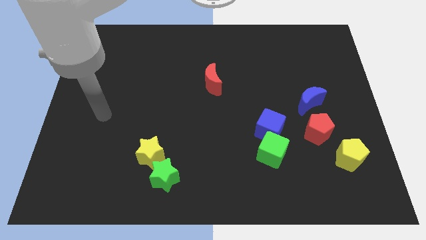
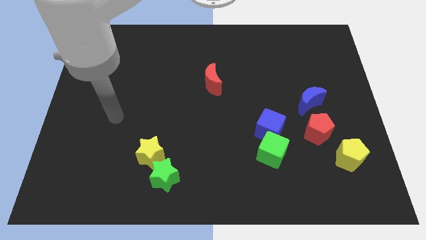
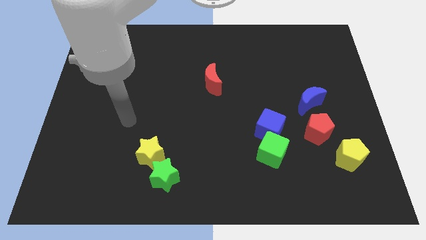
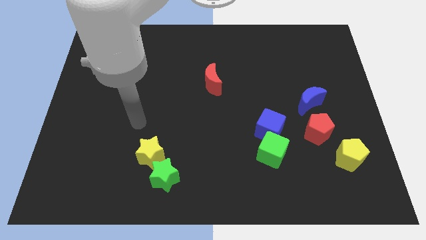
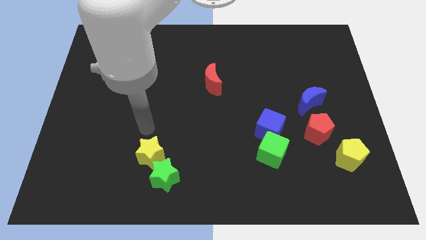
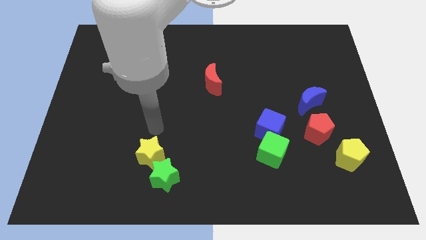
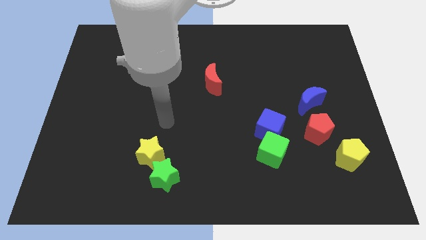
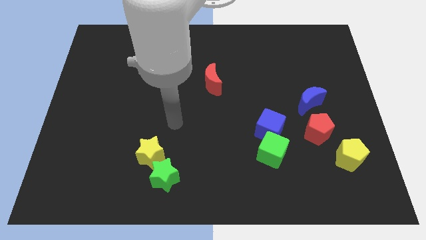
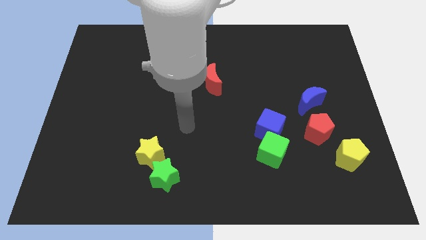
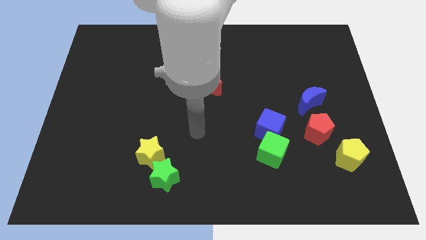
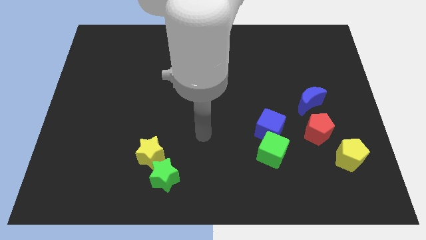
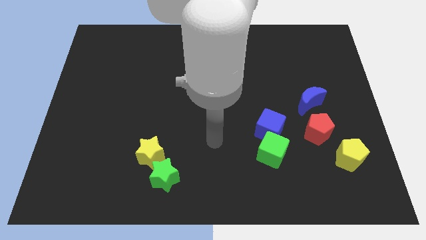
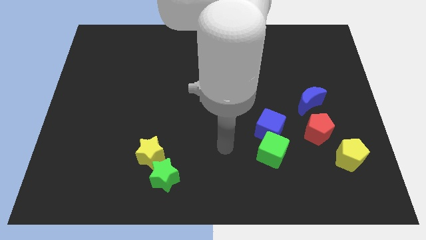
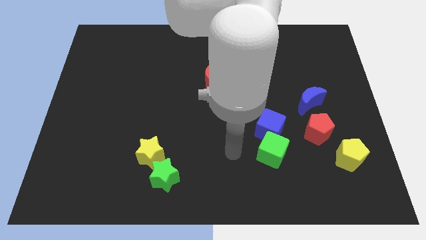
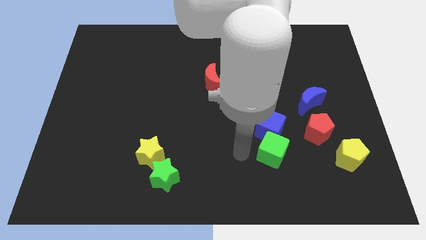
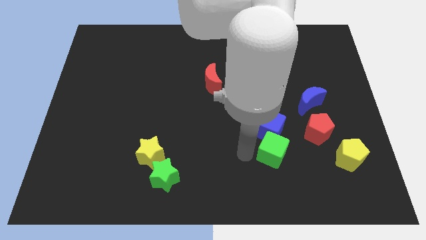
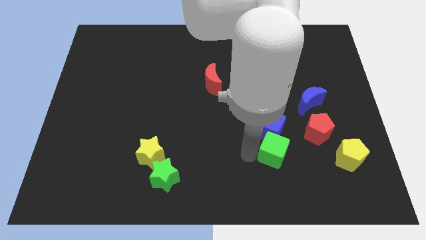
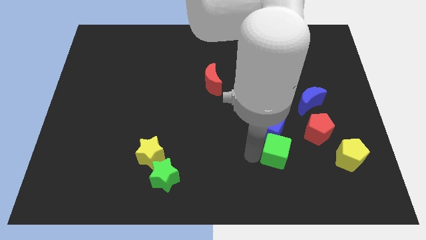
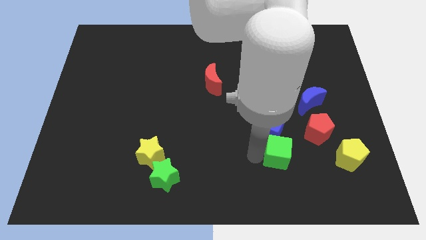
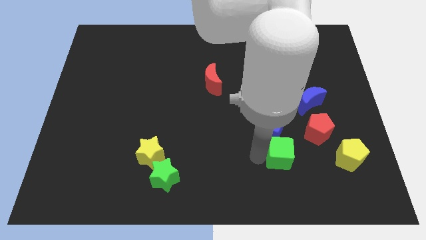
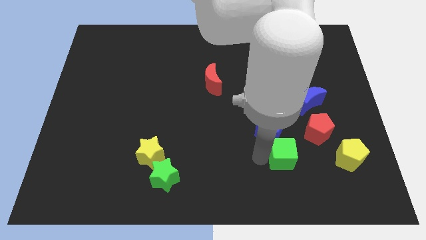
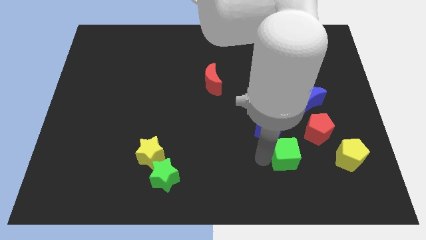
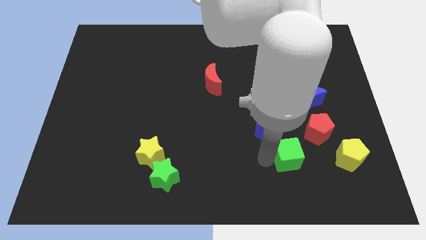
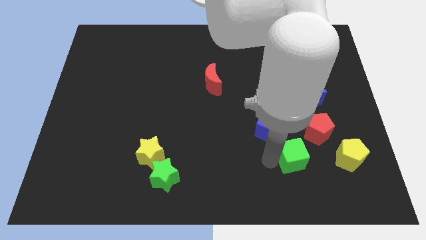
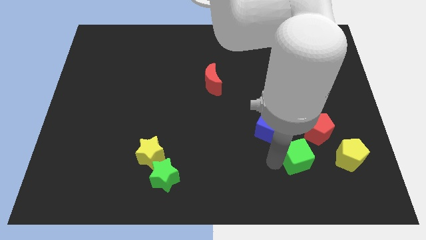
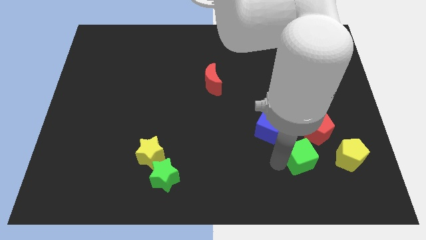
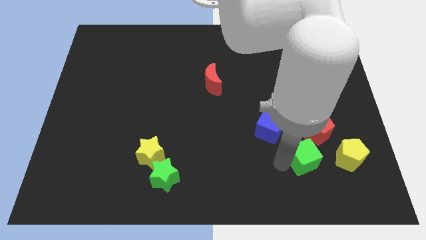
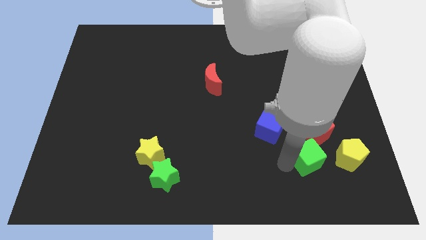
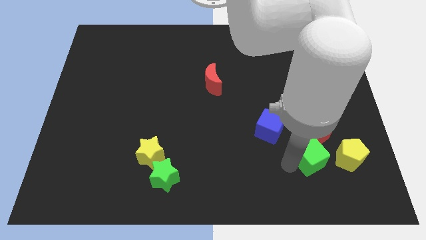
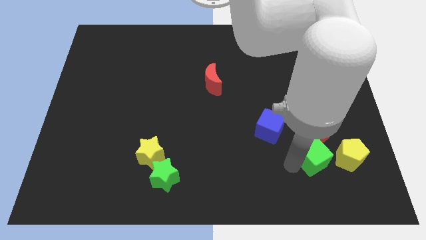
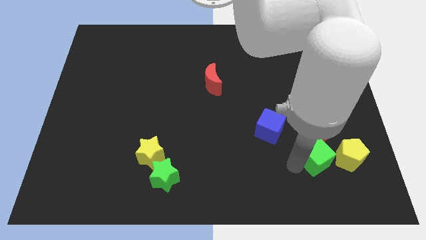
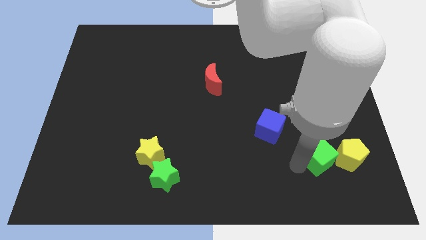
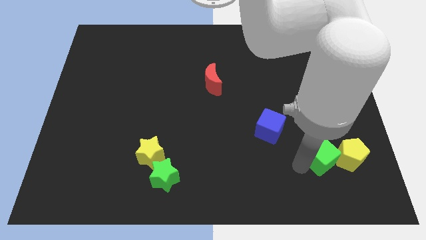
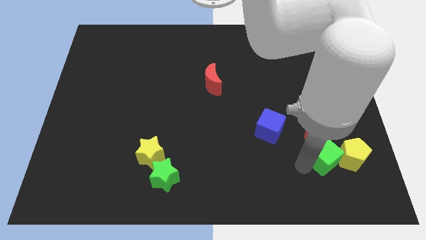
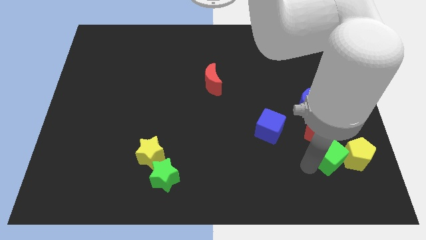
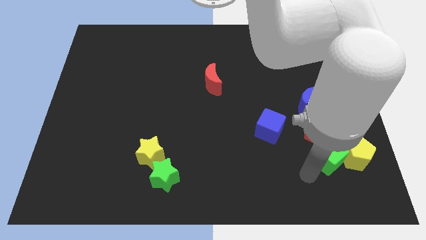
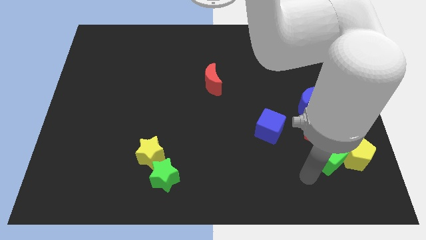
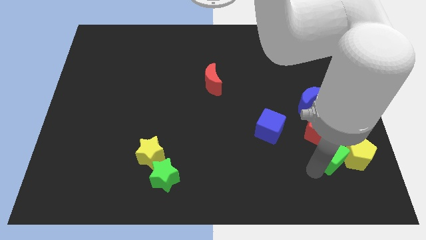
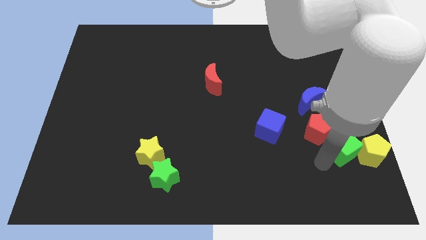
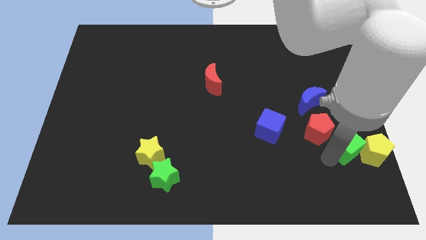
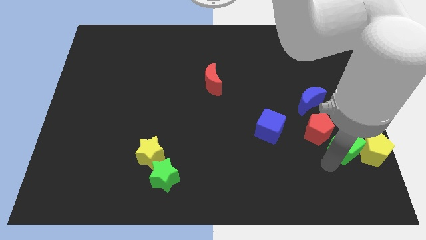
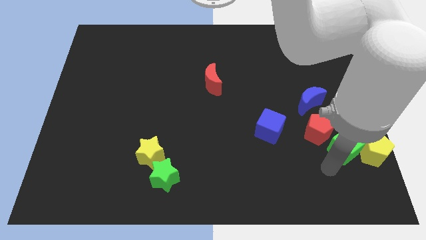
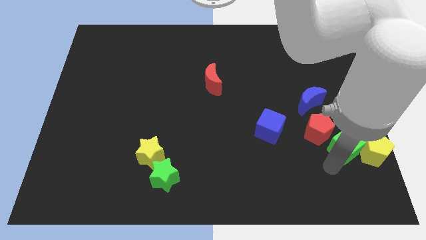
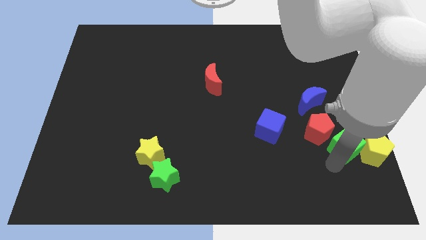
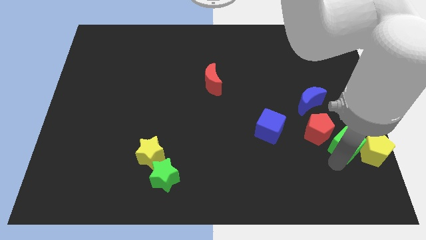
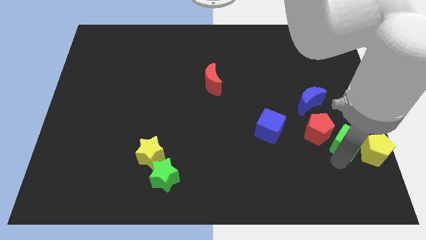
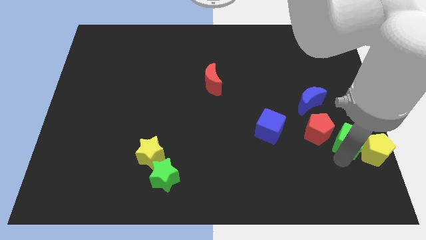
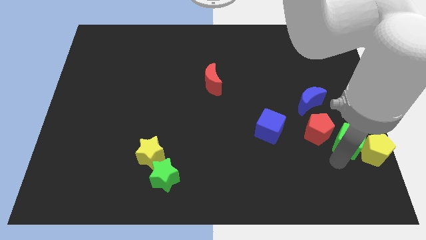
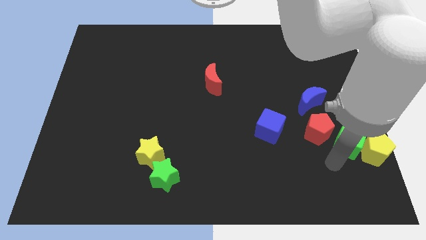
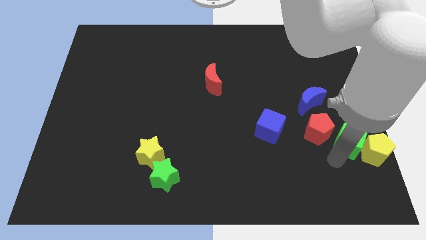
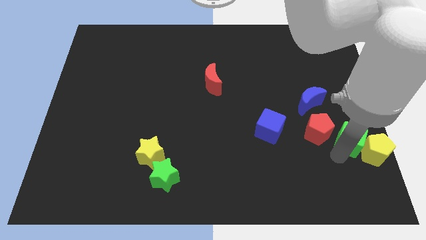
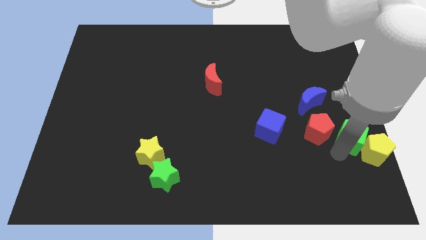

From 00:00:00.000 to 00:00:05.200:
push the green cube to the right side

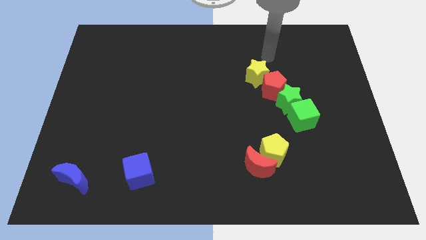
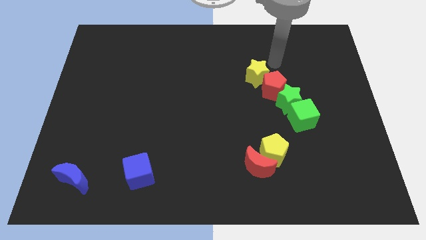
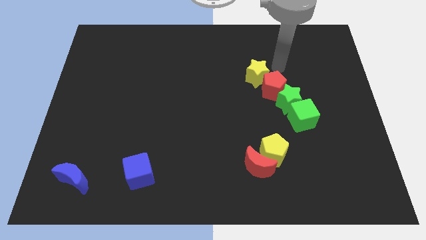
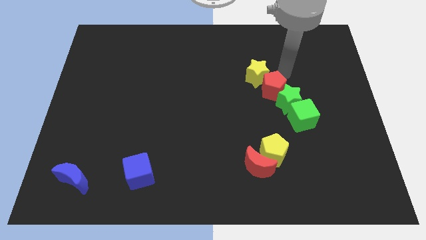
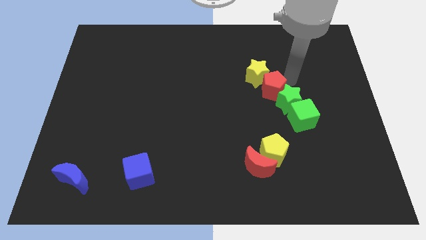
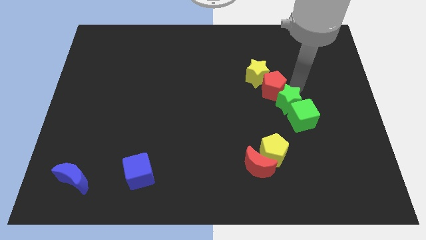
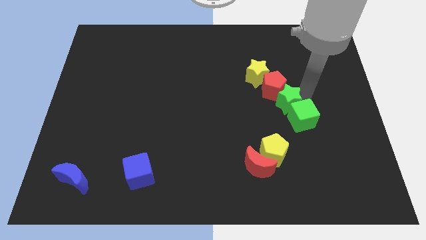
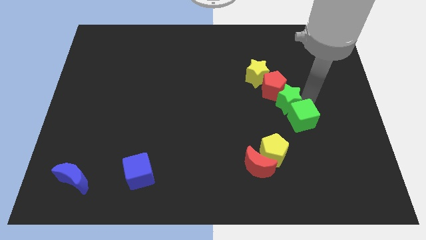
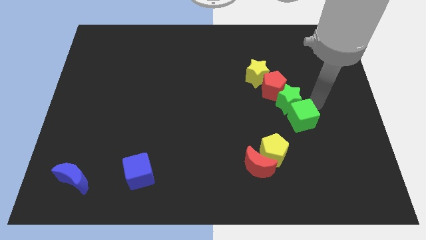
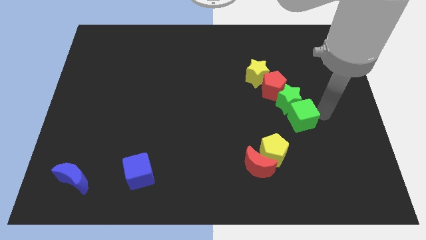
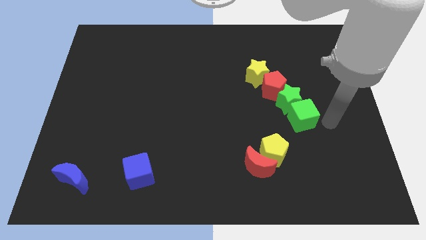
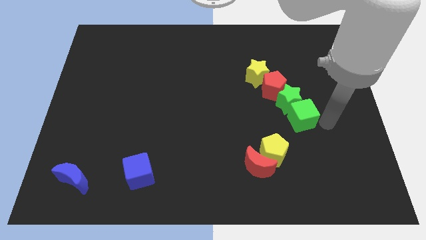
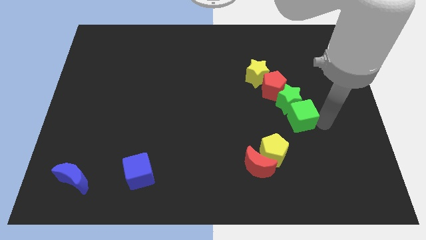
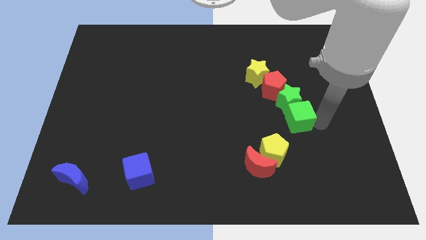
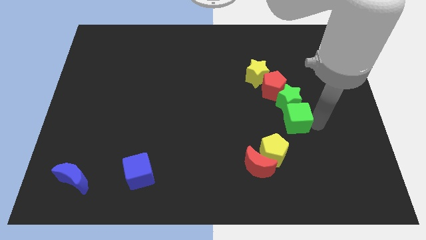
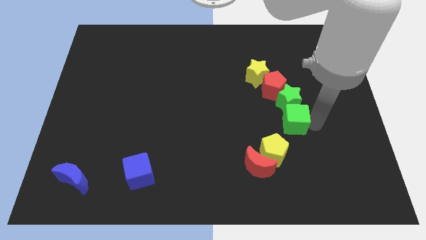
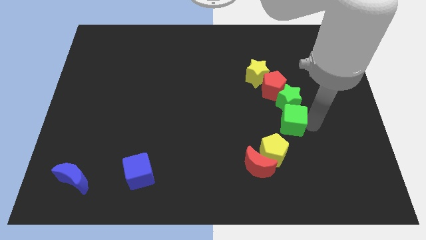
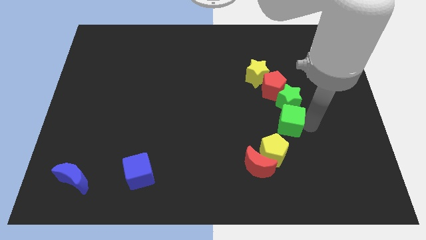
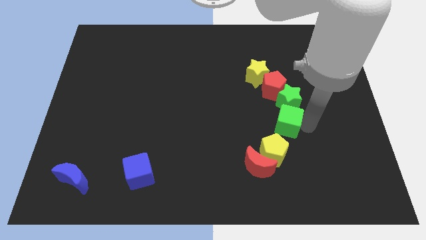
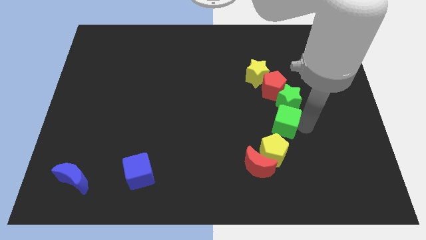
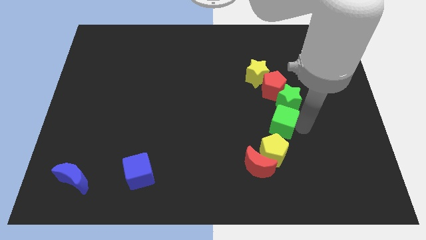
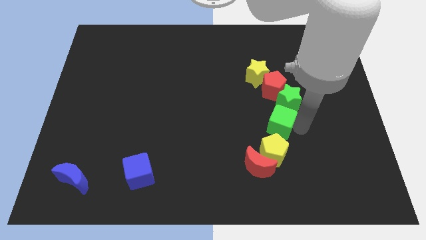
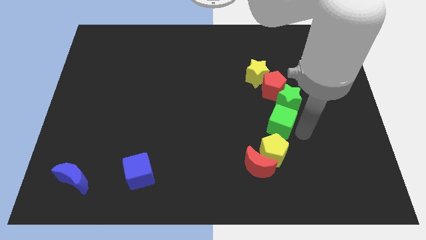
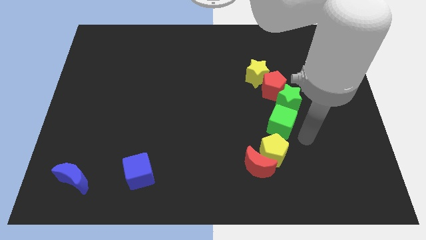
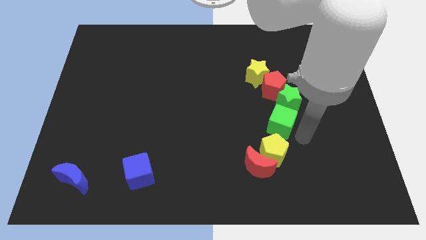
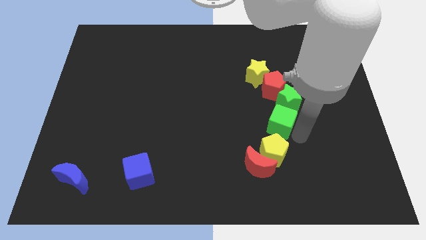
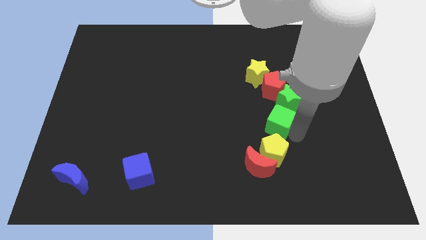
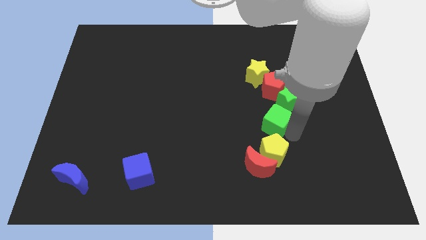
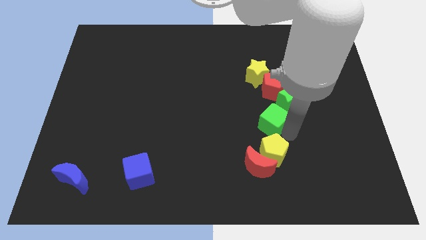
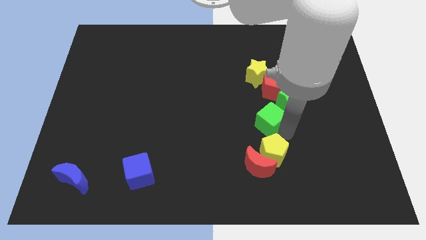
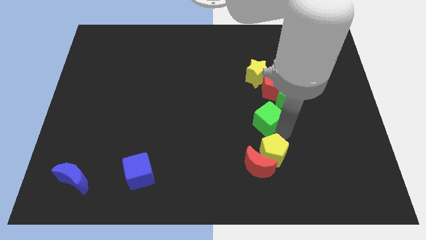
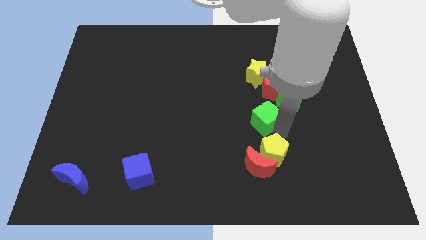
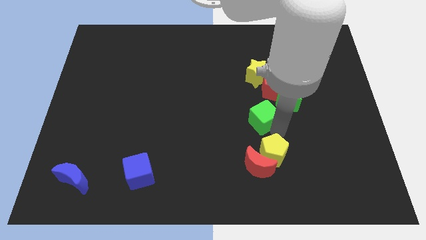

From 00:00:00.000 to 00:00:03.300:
put the green cube to the middle of the board
